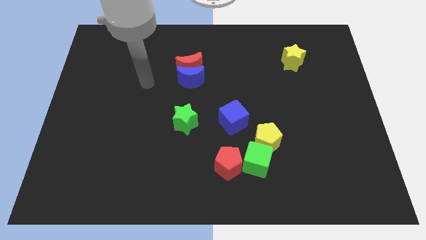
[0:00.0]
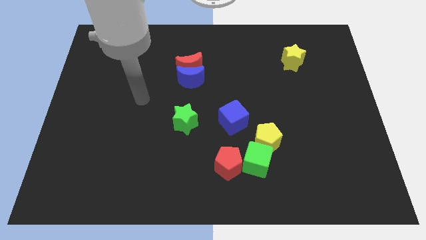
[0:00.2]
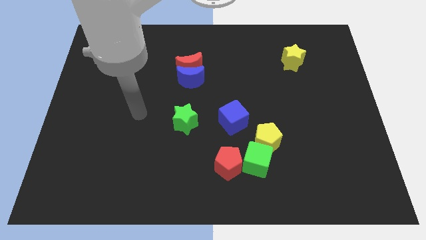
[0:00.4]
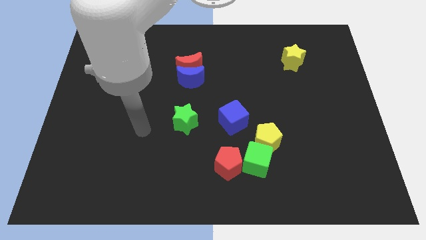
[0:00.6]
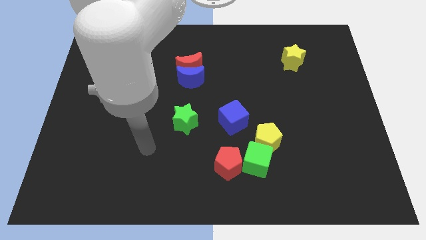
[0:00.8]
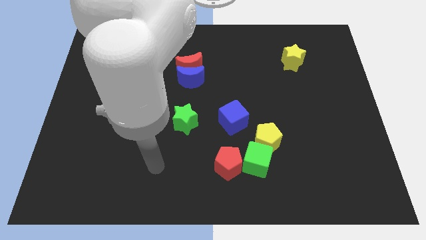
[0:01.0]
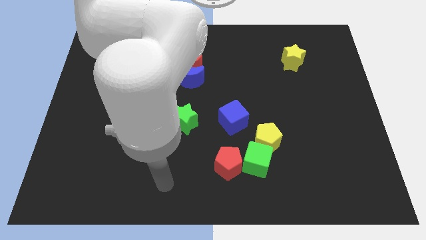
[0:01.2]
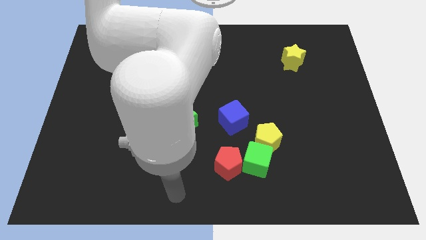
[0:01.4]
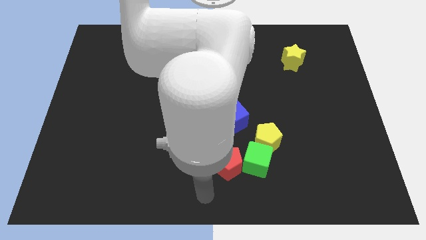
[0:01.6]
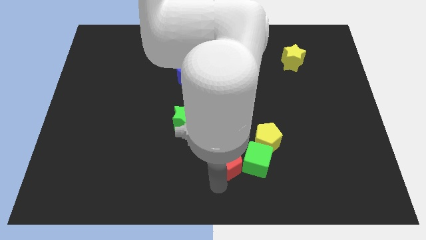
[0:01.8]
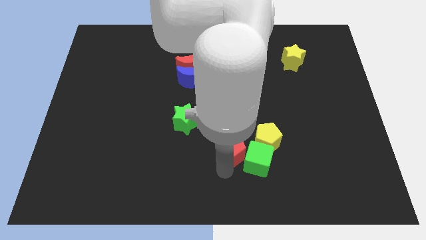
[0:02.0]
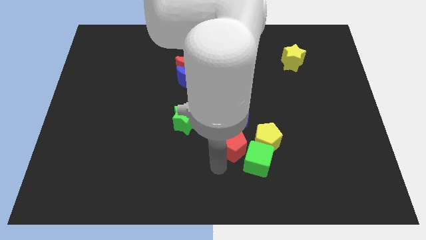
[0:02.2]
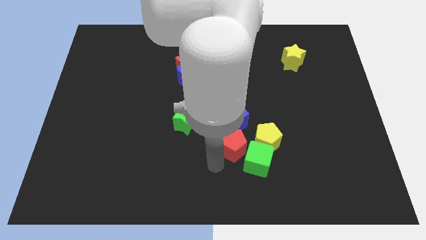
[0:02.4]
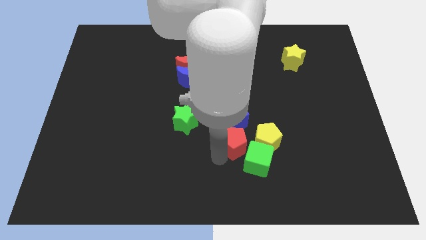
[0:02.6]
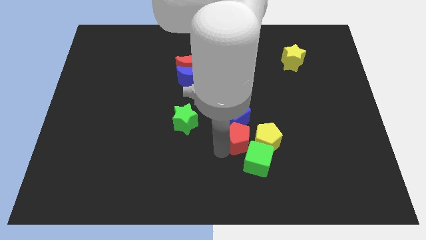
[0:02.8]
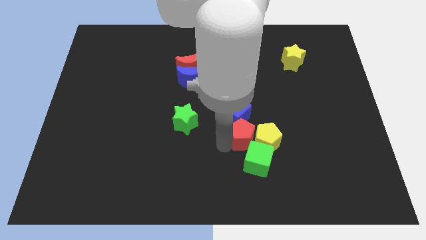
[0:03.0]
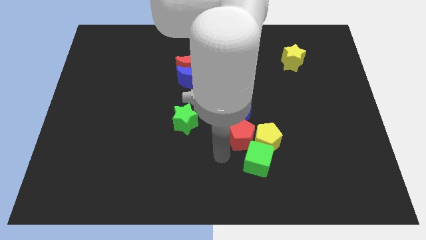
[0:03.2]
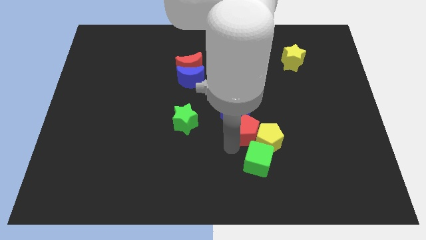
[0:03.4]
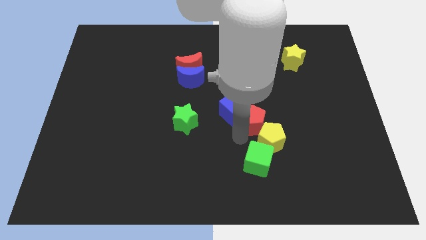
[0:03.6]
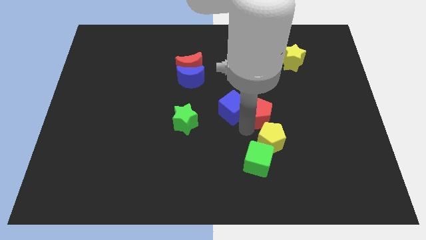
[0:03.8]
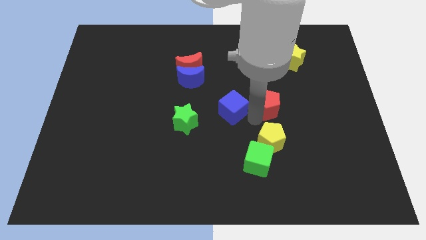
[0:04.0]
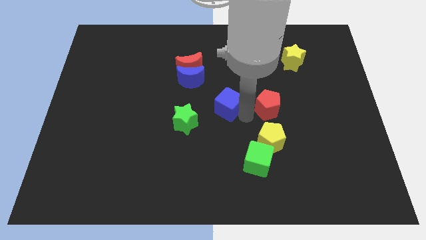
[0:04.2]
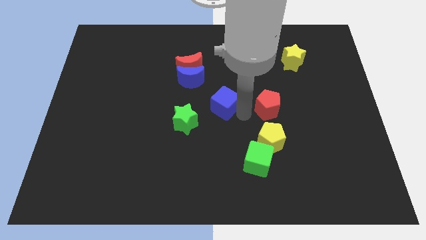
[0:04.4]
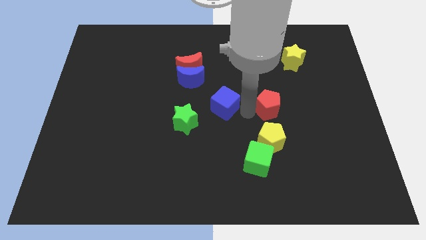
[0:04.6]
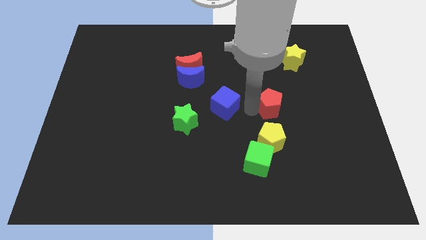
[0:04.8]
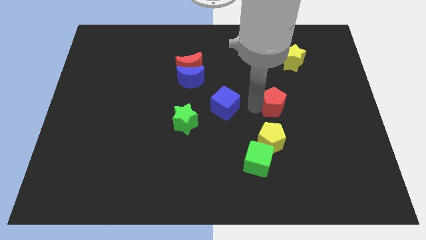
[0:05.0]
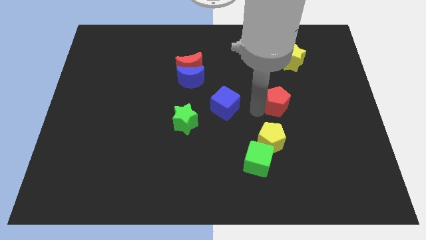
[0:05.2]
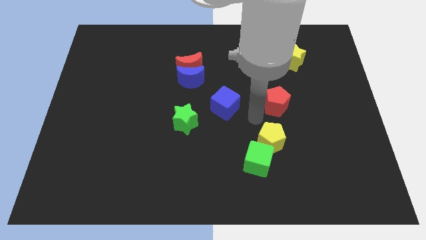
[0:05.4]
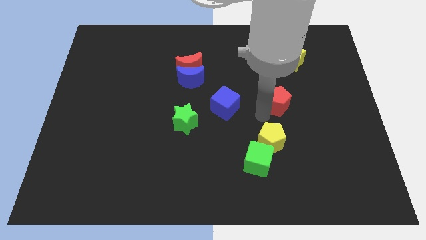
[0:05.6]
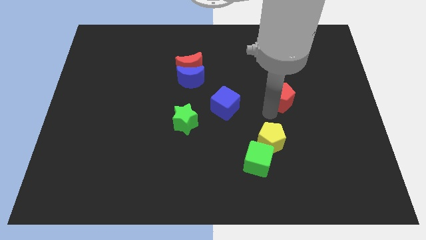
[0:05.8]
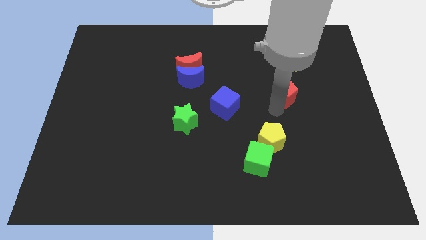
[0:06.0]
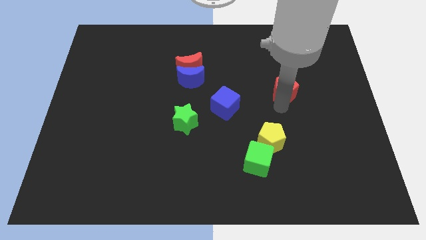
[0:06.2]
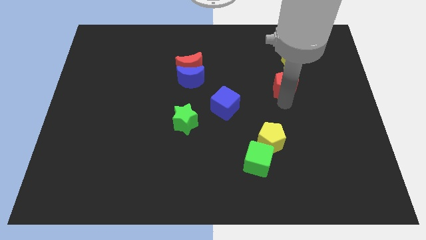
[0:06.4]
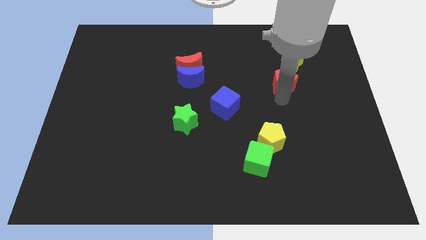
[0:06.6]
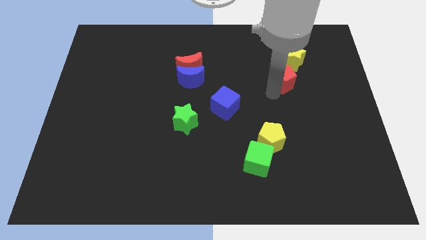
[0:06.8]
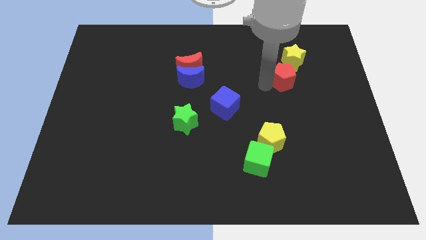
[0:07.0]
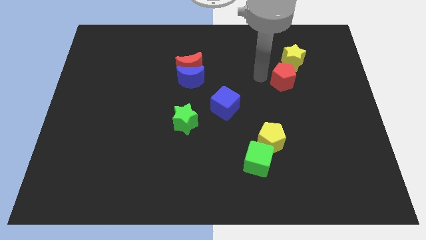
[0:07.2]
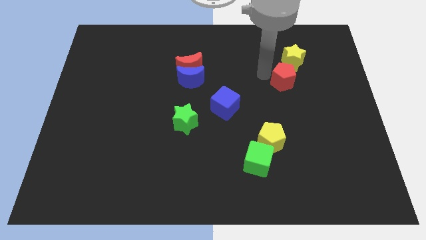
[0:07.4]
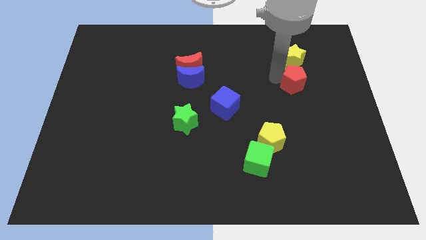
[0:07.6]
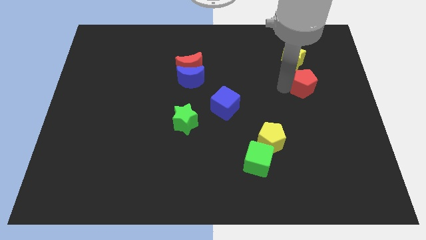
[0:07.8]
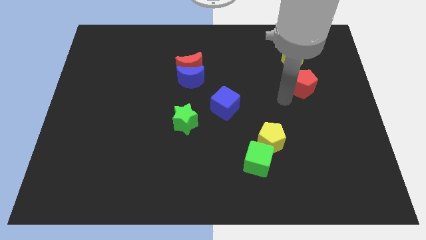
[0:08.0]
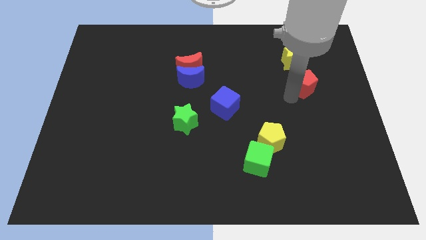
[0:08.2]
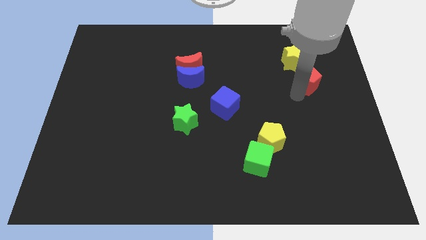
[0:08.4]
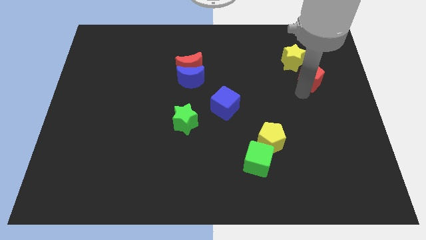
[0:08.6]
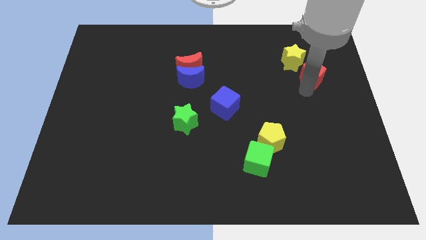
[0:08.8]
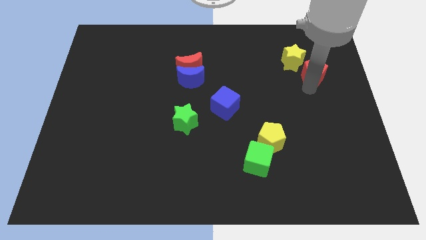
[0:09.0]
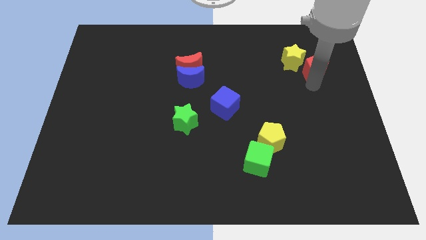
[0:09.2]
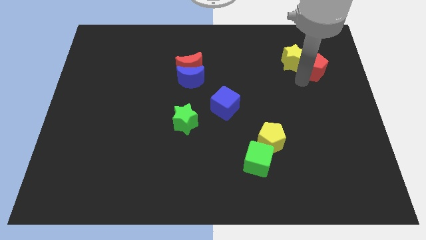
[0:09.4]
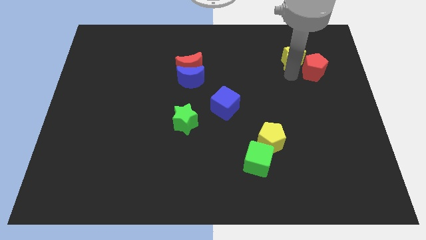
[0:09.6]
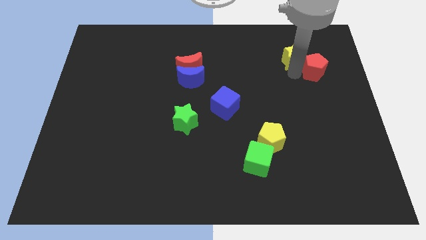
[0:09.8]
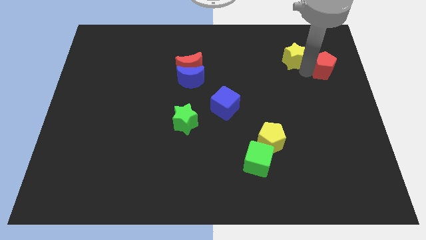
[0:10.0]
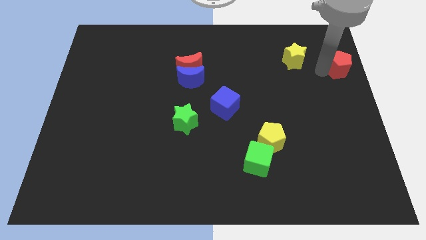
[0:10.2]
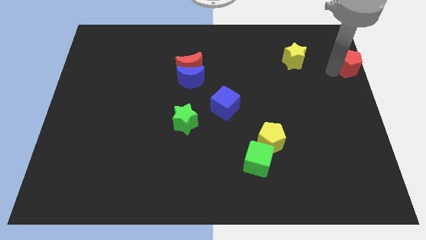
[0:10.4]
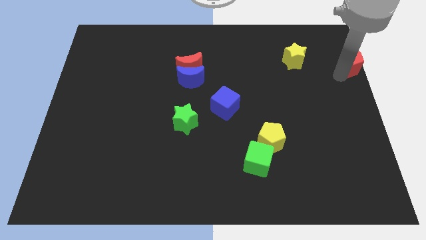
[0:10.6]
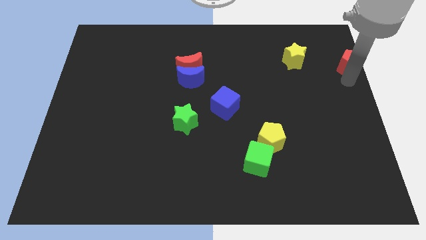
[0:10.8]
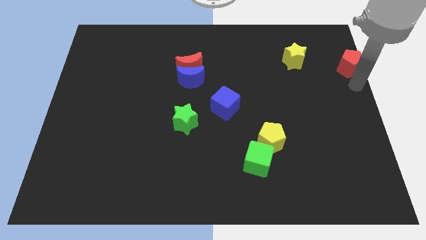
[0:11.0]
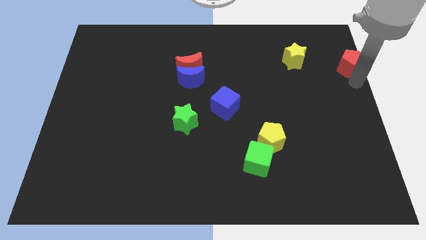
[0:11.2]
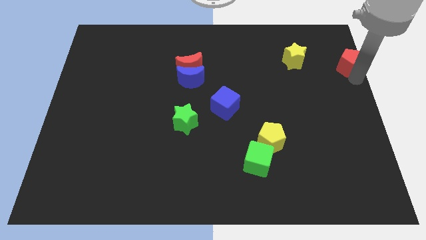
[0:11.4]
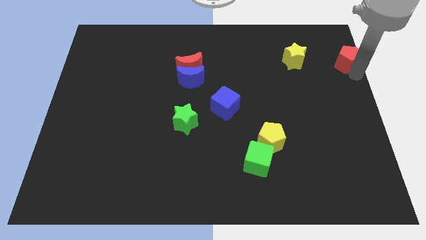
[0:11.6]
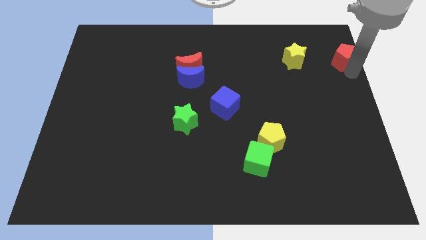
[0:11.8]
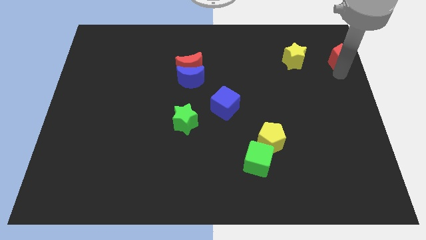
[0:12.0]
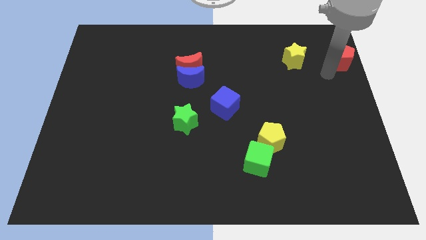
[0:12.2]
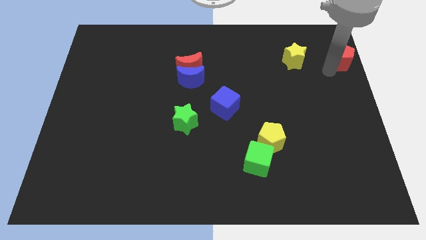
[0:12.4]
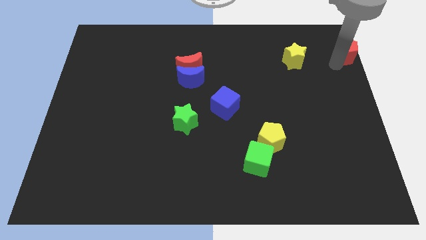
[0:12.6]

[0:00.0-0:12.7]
push the red pentagon to the upper right corner
